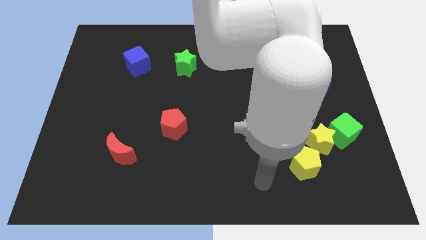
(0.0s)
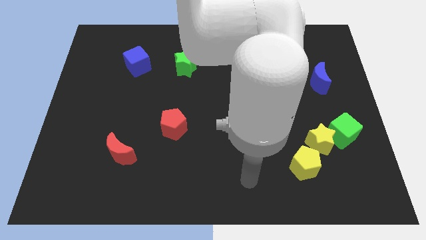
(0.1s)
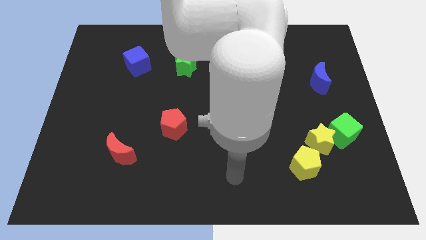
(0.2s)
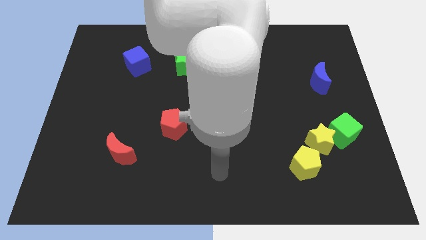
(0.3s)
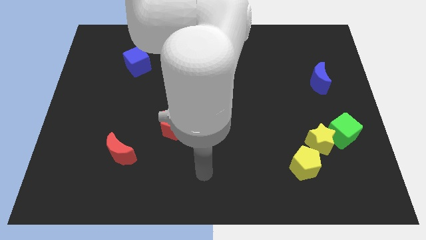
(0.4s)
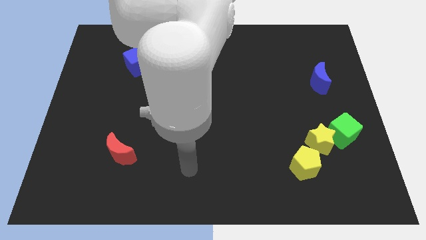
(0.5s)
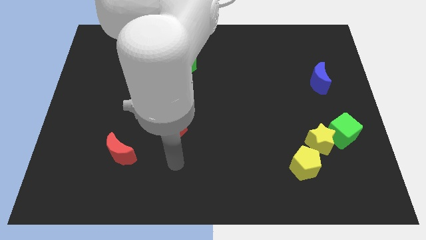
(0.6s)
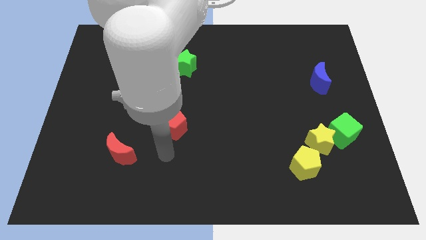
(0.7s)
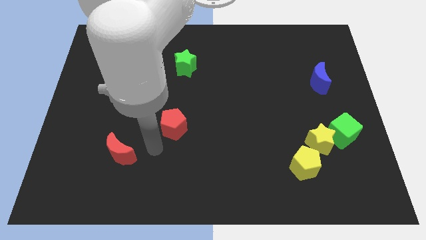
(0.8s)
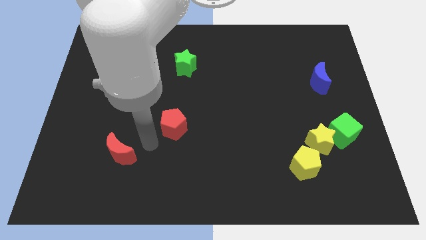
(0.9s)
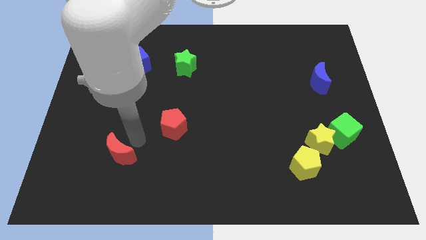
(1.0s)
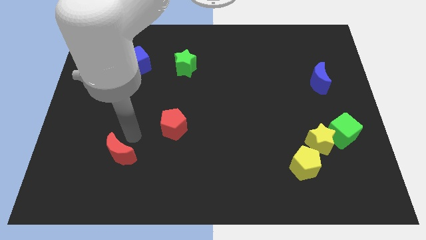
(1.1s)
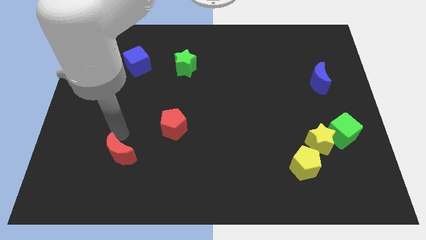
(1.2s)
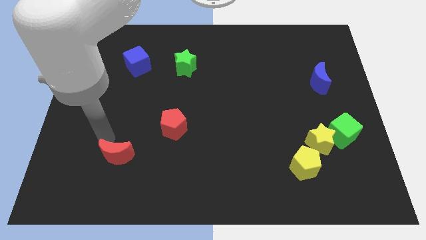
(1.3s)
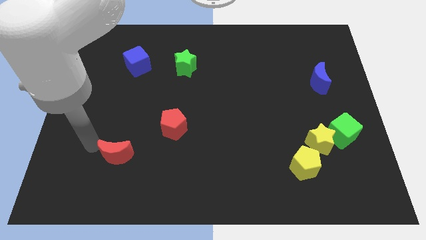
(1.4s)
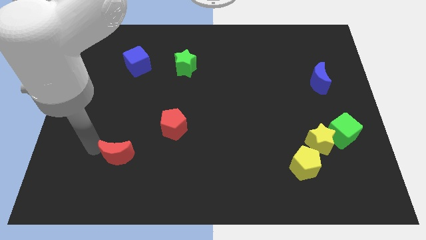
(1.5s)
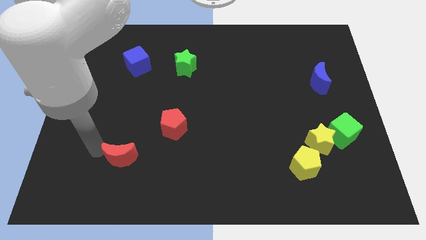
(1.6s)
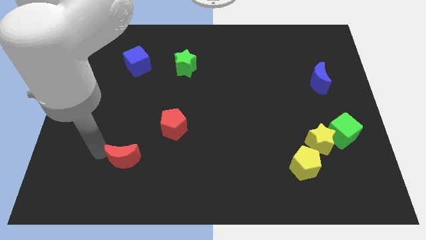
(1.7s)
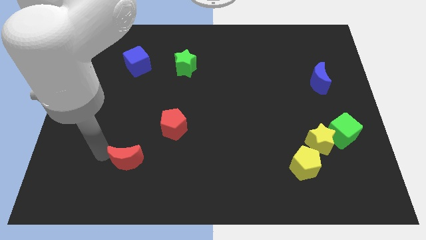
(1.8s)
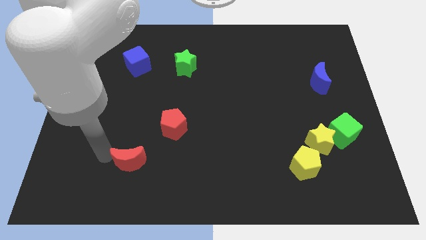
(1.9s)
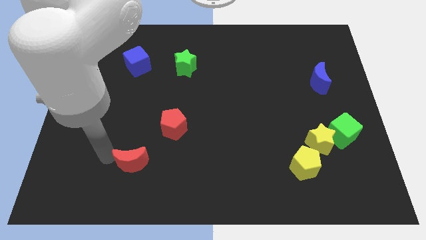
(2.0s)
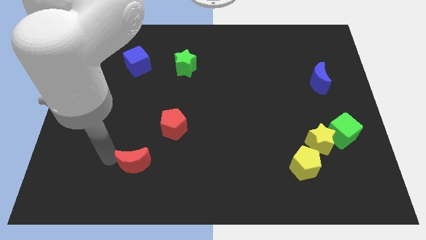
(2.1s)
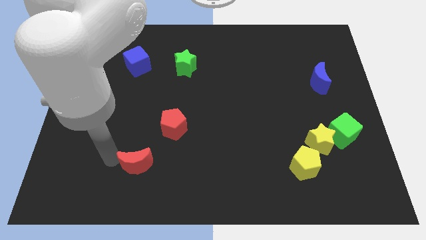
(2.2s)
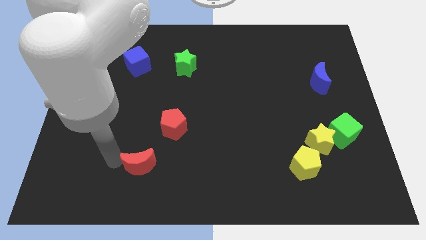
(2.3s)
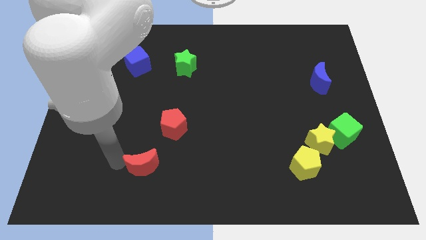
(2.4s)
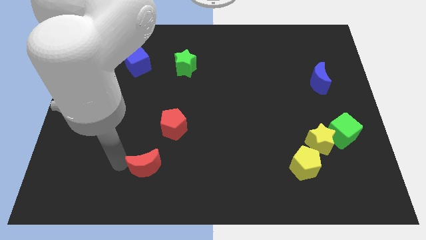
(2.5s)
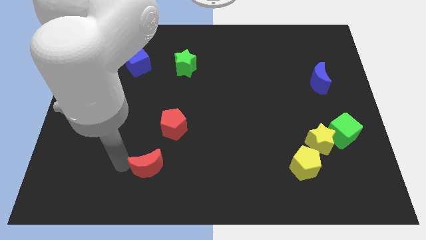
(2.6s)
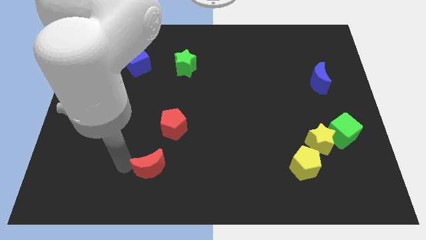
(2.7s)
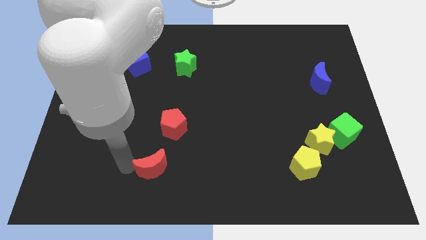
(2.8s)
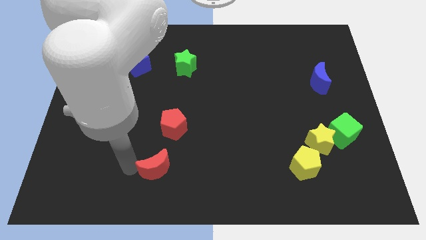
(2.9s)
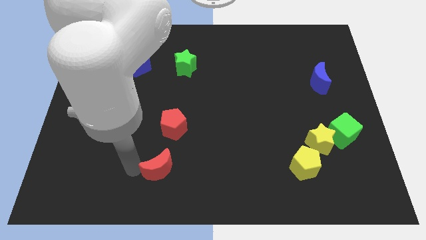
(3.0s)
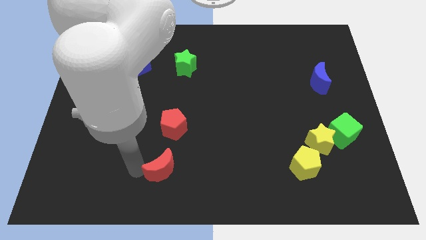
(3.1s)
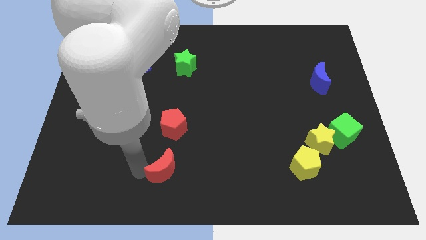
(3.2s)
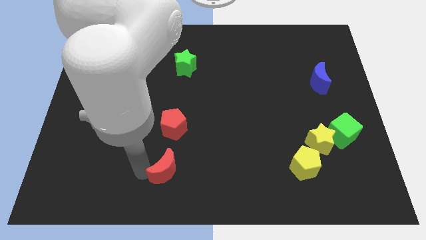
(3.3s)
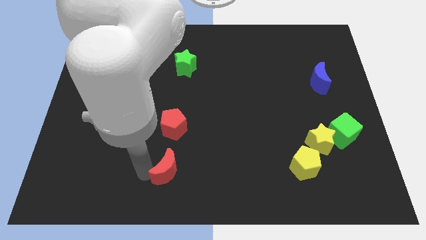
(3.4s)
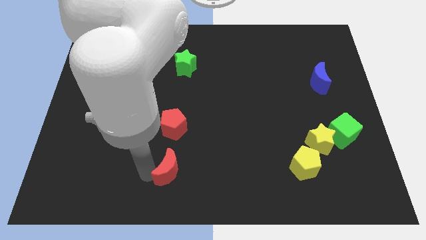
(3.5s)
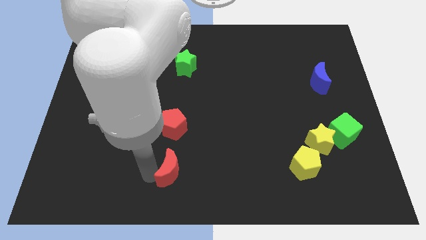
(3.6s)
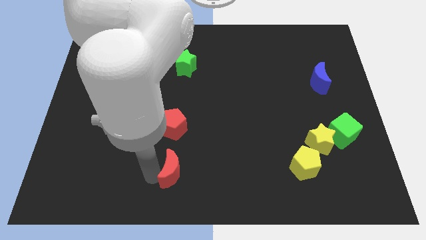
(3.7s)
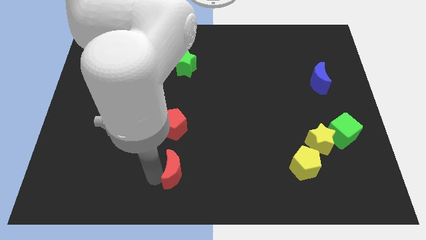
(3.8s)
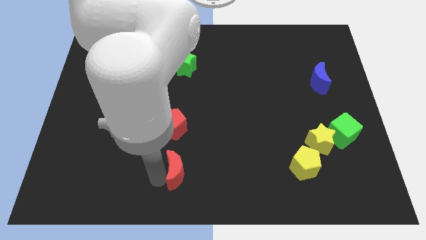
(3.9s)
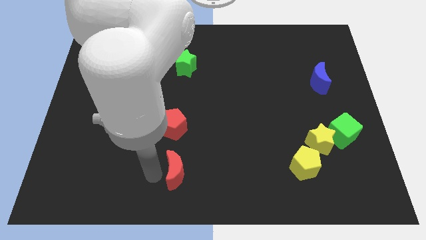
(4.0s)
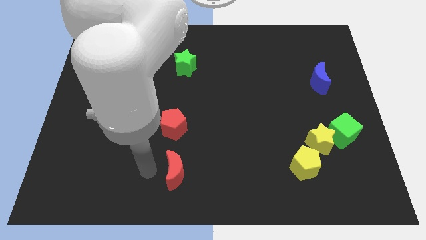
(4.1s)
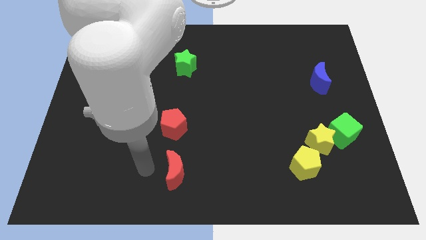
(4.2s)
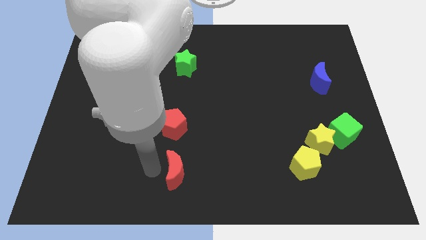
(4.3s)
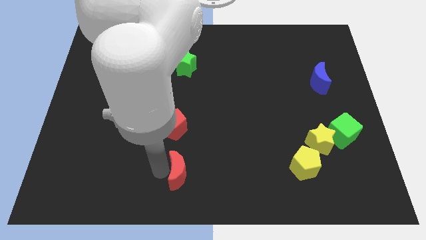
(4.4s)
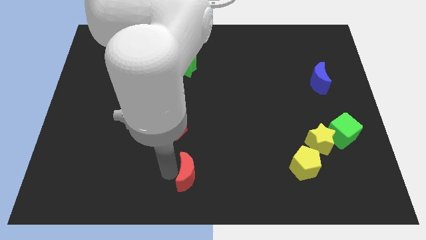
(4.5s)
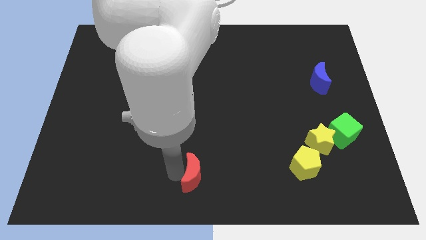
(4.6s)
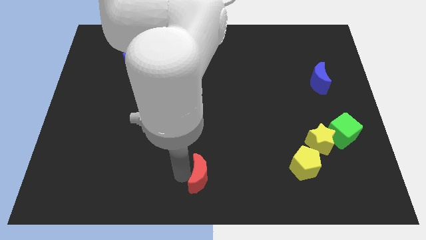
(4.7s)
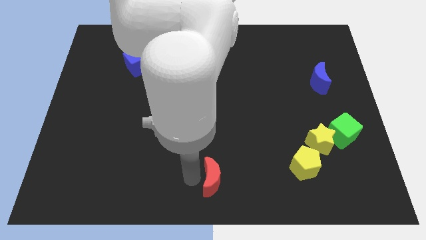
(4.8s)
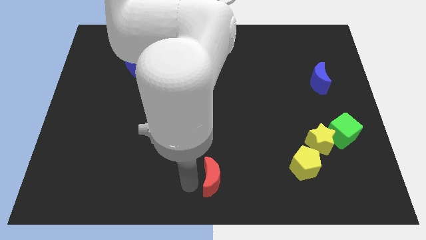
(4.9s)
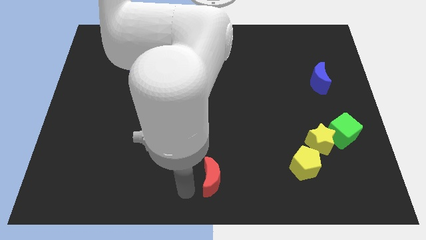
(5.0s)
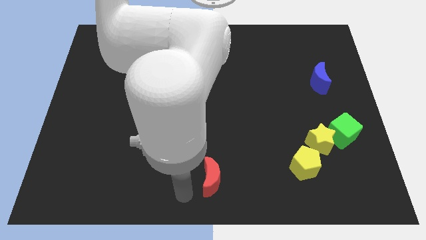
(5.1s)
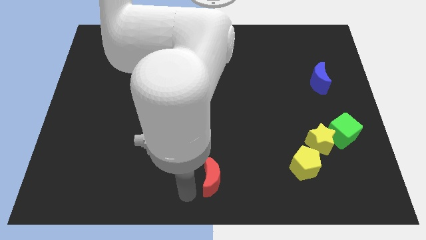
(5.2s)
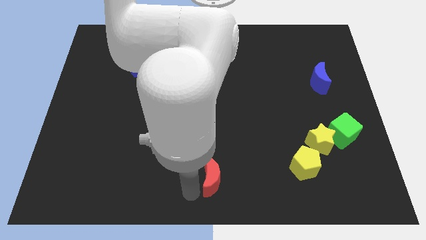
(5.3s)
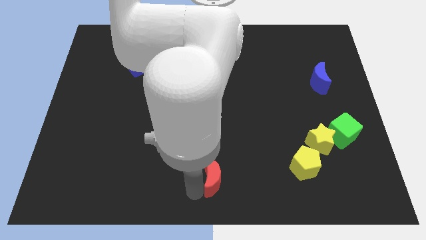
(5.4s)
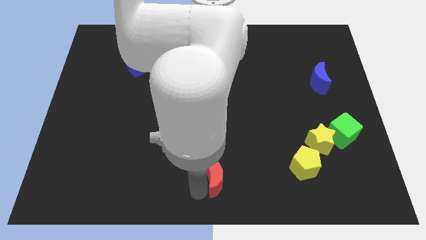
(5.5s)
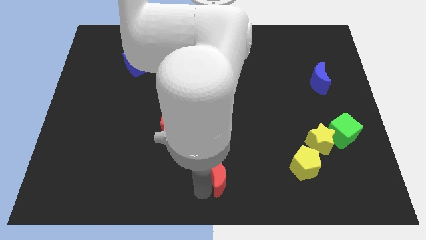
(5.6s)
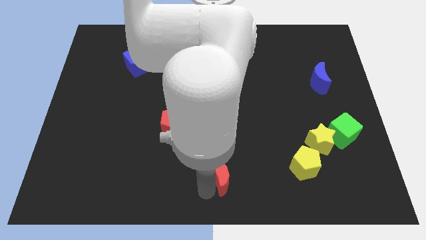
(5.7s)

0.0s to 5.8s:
slide the red moon to the right

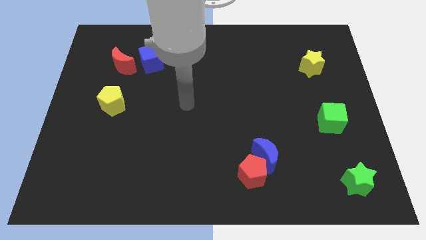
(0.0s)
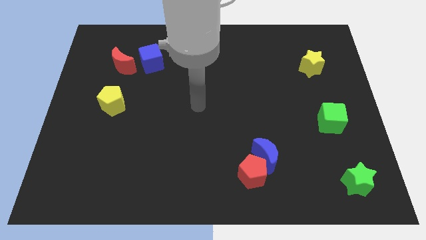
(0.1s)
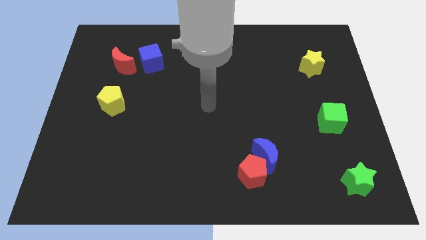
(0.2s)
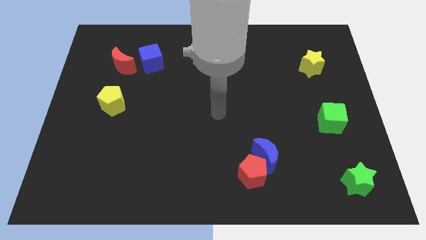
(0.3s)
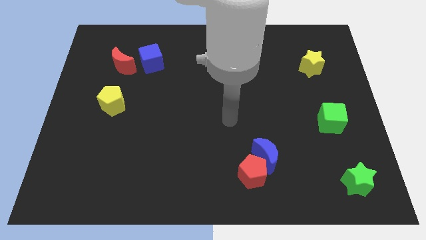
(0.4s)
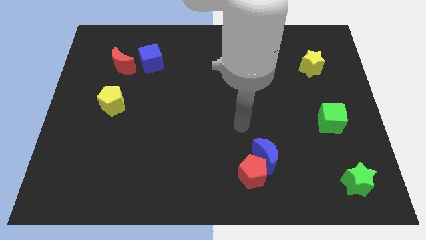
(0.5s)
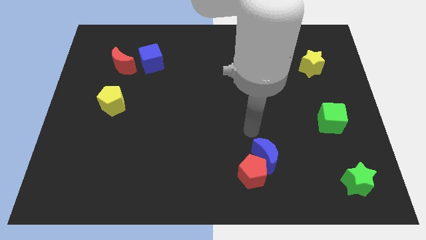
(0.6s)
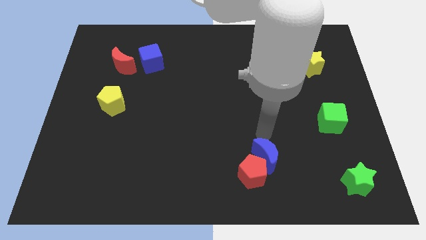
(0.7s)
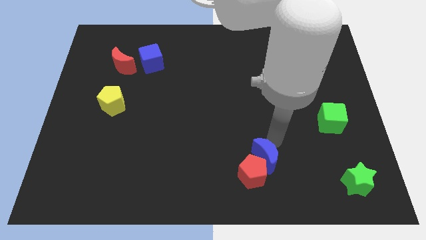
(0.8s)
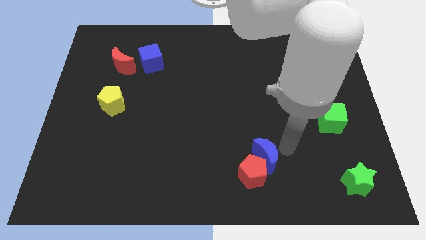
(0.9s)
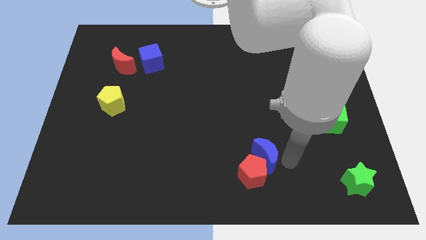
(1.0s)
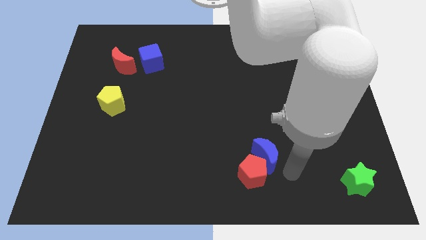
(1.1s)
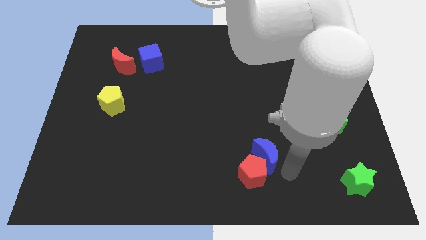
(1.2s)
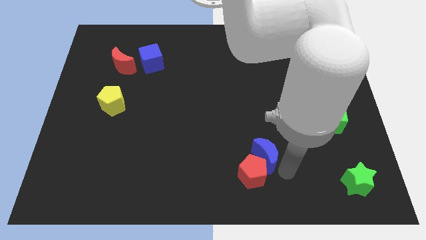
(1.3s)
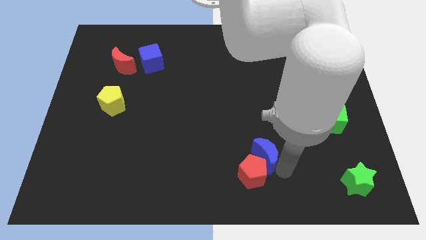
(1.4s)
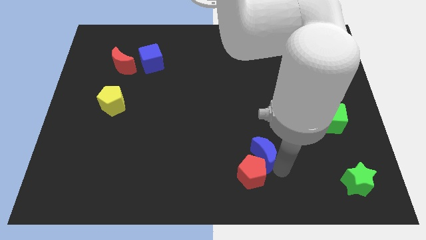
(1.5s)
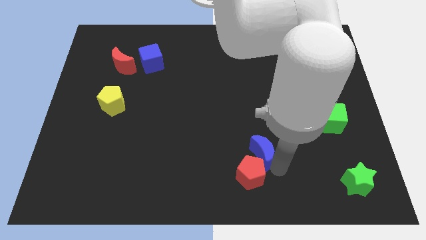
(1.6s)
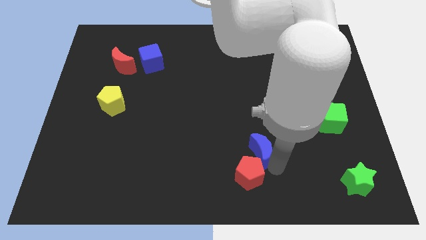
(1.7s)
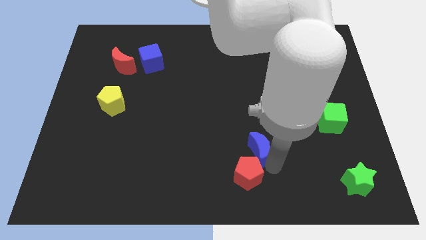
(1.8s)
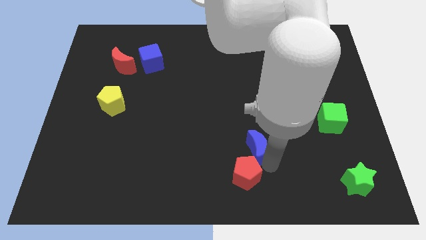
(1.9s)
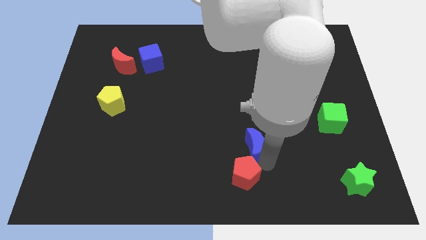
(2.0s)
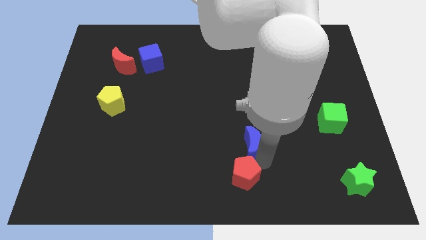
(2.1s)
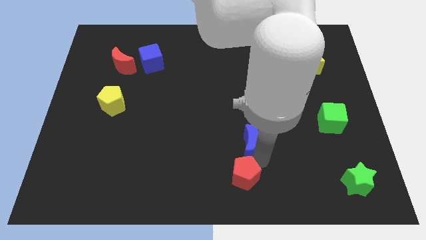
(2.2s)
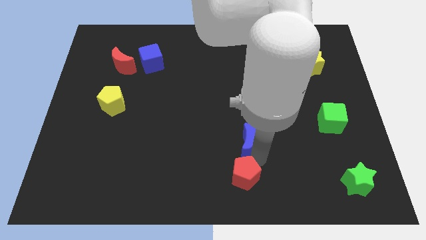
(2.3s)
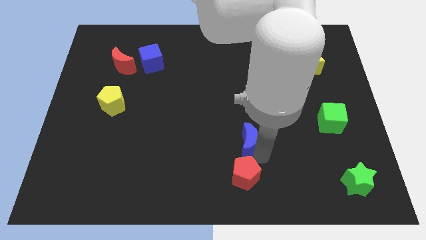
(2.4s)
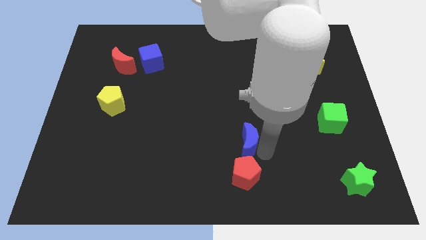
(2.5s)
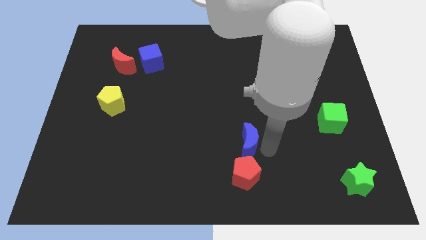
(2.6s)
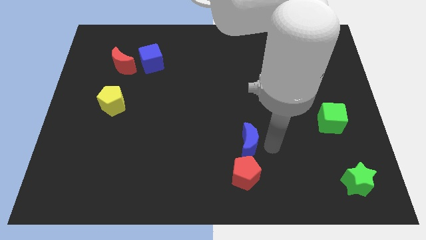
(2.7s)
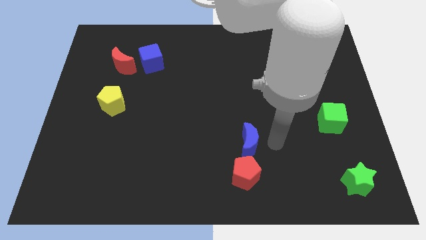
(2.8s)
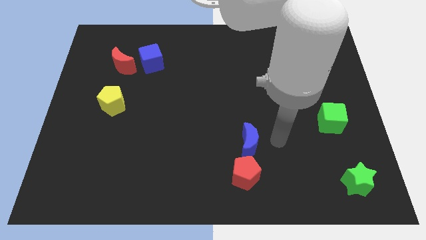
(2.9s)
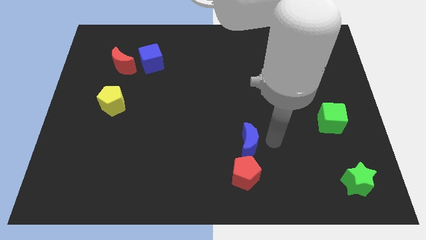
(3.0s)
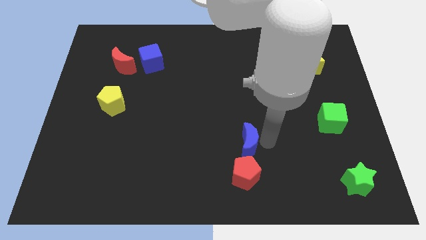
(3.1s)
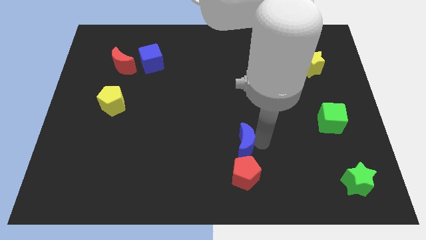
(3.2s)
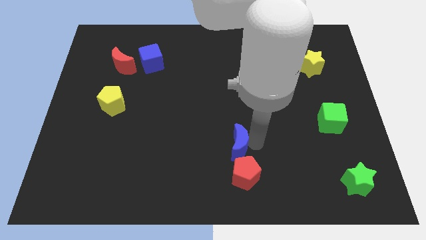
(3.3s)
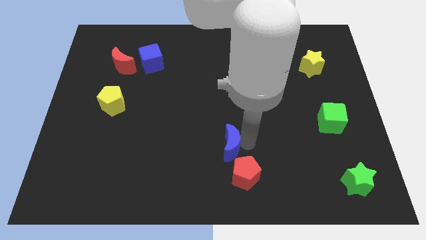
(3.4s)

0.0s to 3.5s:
move the blue moon a little left
